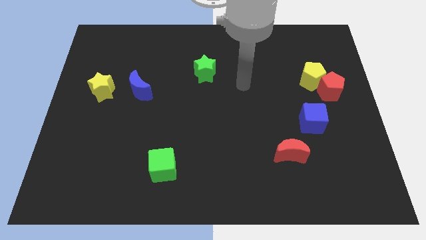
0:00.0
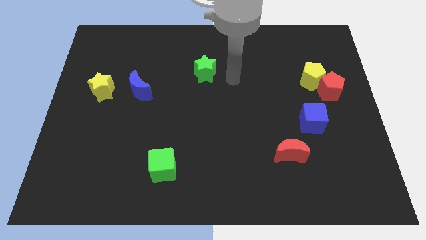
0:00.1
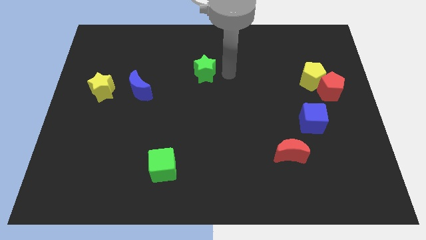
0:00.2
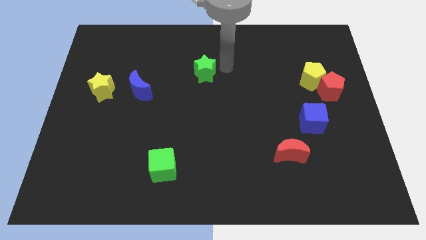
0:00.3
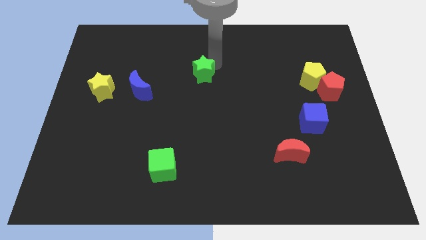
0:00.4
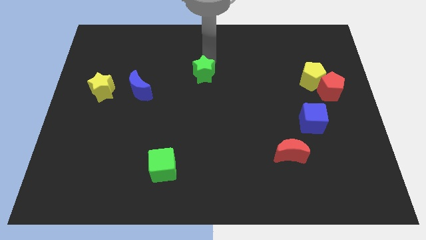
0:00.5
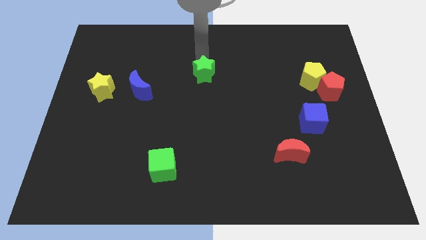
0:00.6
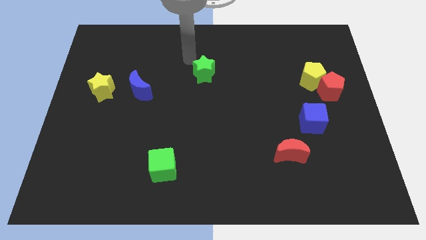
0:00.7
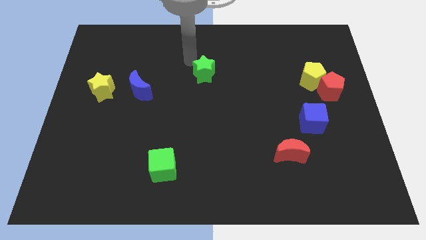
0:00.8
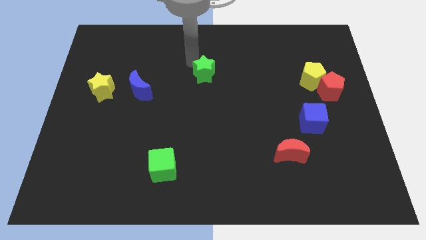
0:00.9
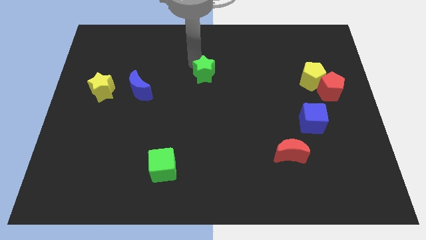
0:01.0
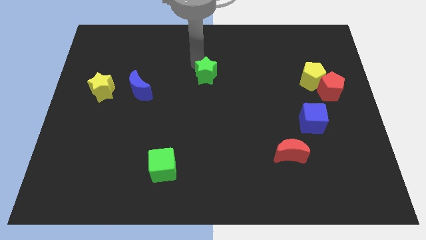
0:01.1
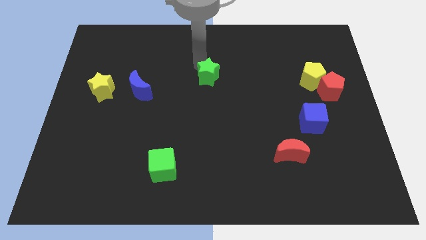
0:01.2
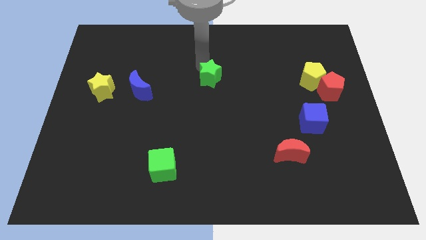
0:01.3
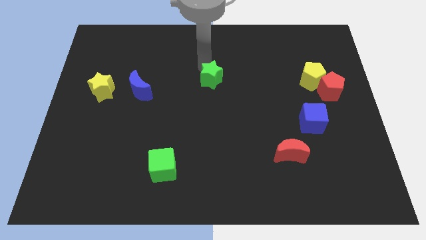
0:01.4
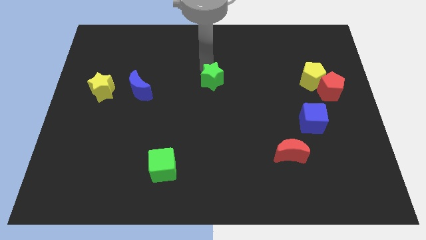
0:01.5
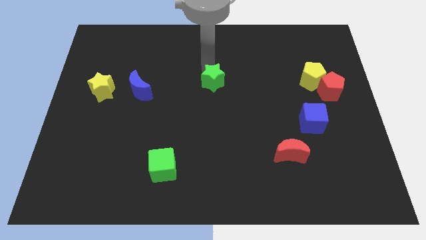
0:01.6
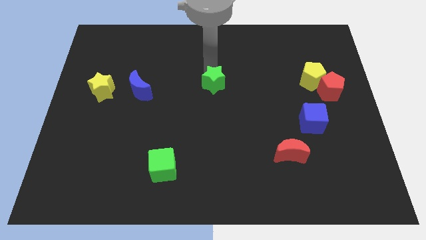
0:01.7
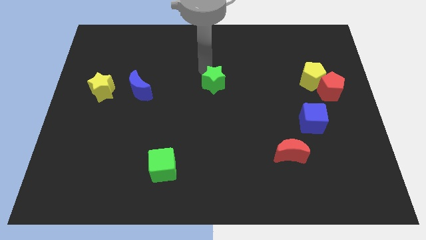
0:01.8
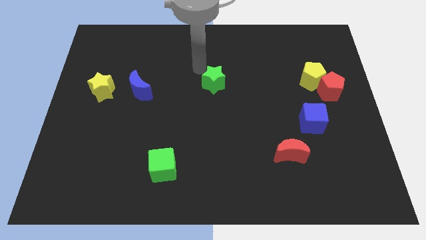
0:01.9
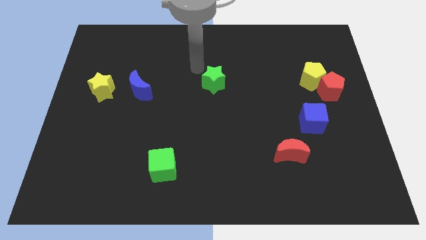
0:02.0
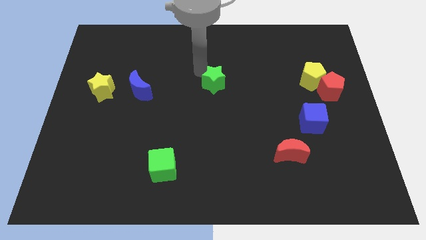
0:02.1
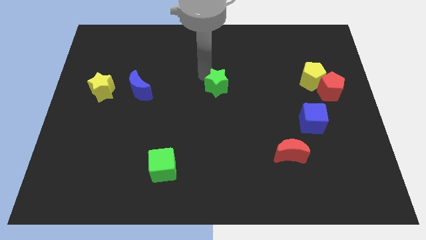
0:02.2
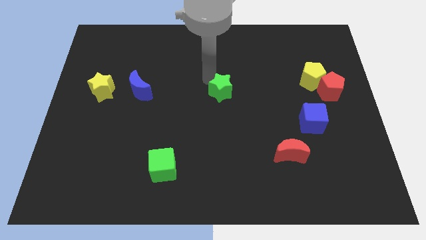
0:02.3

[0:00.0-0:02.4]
move the green star diagonally downwards and to the right a little bit

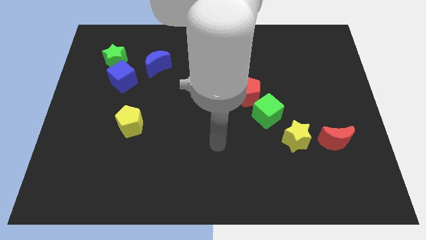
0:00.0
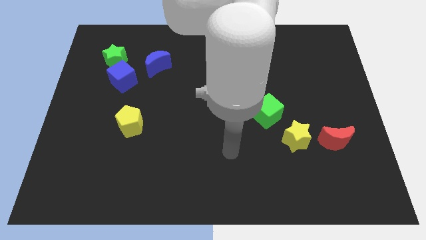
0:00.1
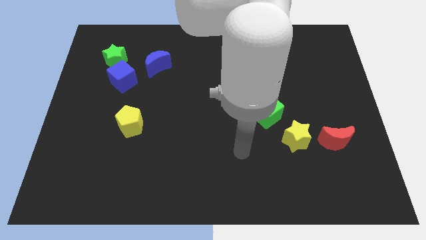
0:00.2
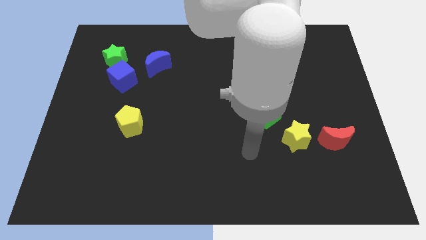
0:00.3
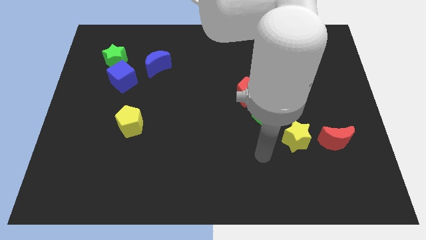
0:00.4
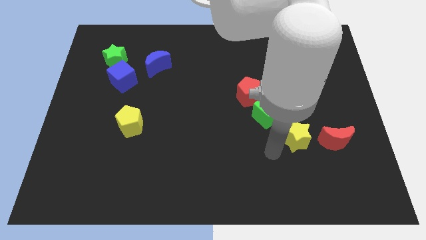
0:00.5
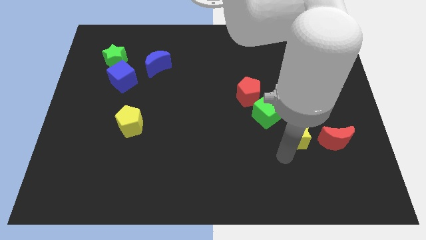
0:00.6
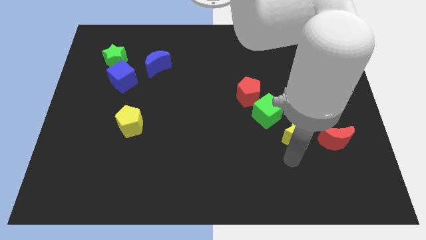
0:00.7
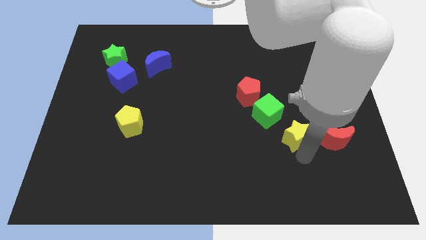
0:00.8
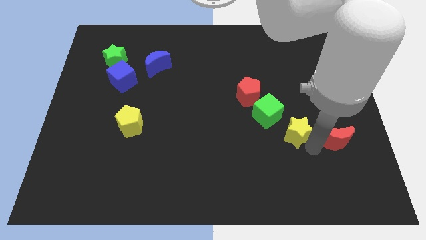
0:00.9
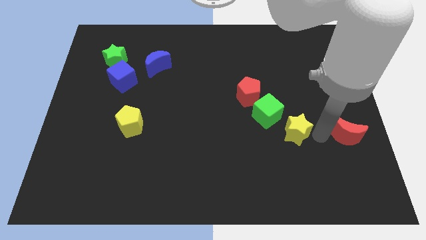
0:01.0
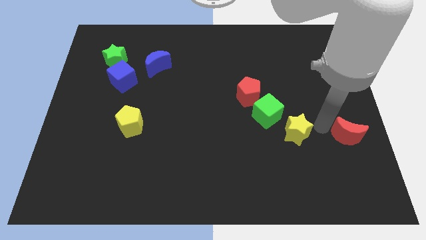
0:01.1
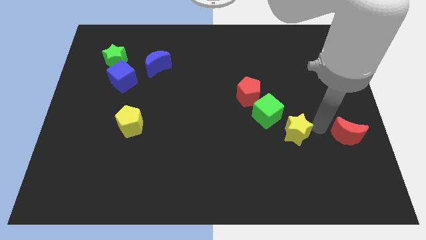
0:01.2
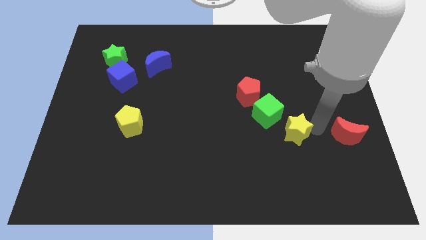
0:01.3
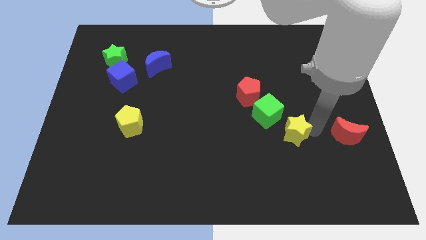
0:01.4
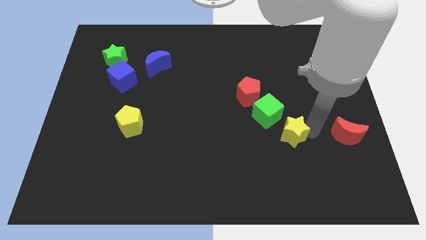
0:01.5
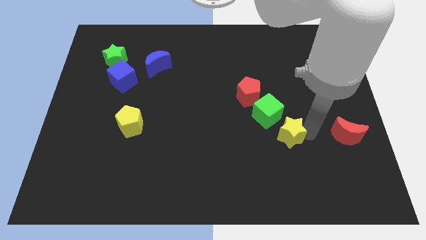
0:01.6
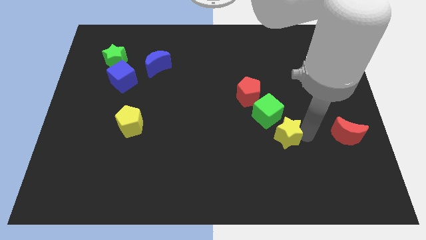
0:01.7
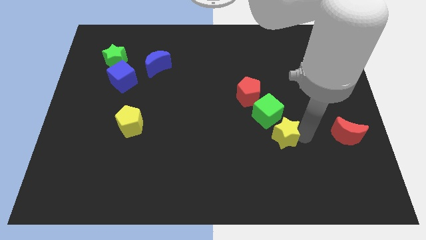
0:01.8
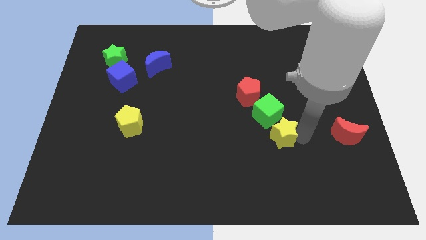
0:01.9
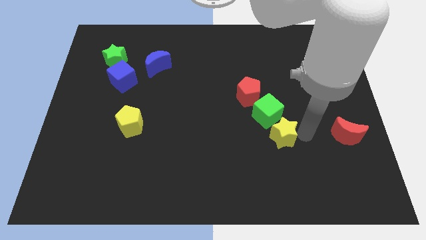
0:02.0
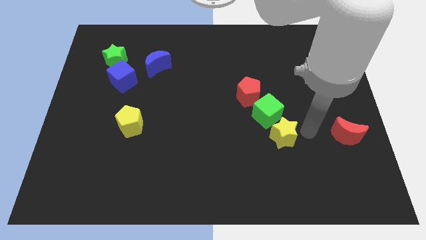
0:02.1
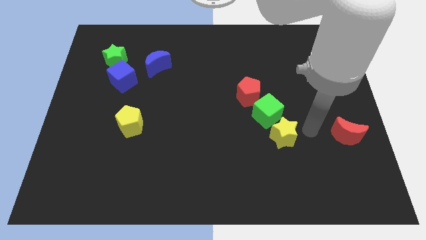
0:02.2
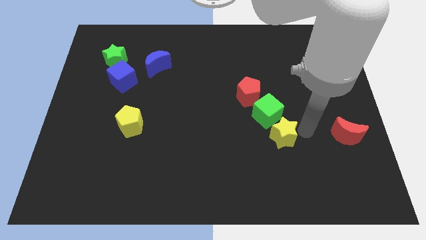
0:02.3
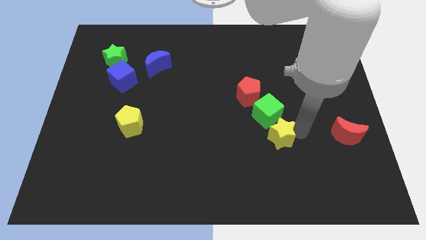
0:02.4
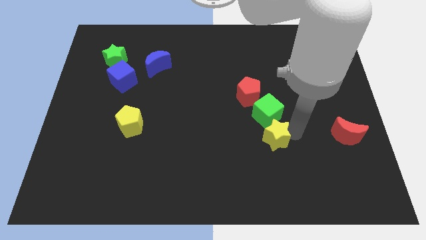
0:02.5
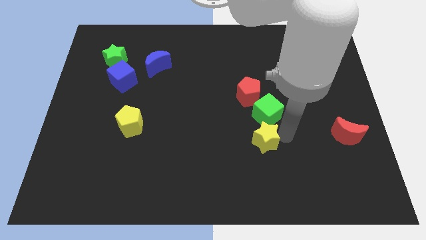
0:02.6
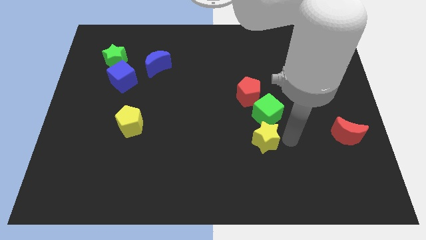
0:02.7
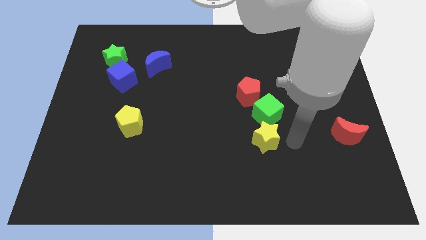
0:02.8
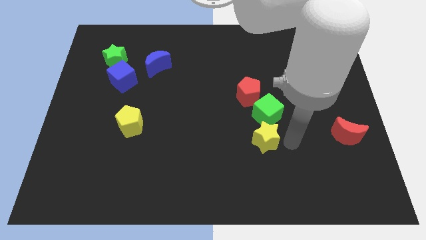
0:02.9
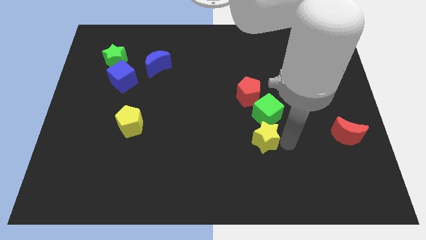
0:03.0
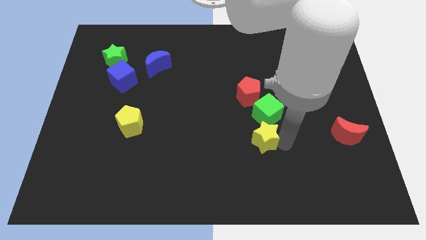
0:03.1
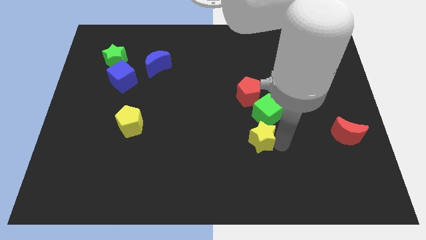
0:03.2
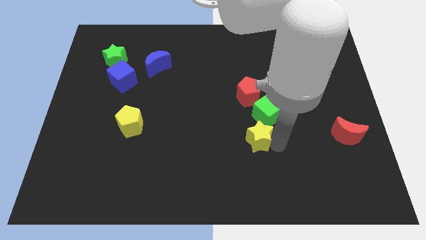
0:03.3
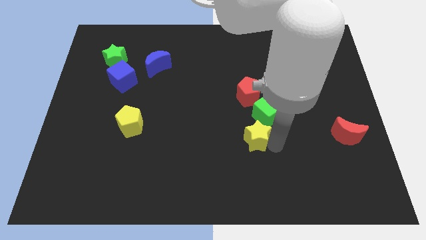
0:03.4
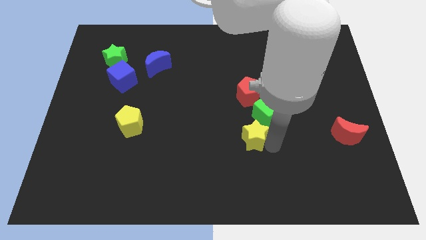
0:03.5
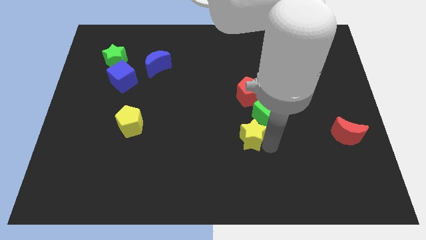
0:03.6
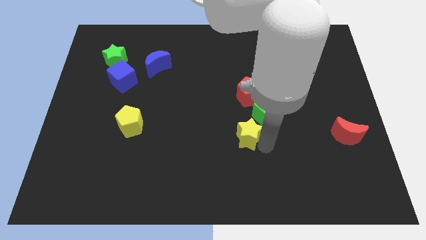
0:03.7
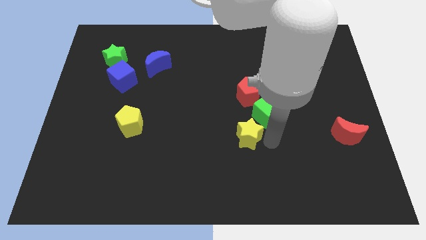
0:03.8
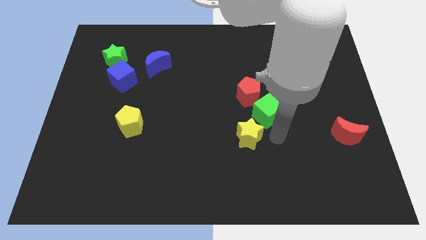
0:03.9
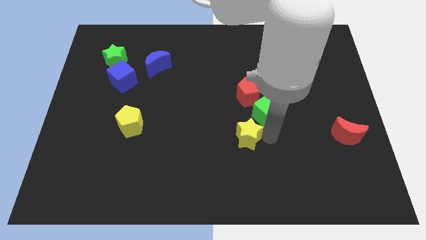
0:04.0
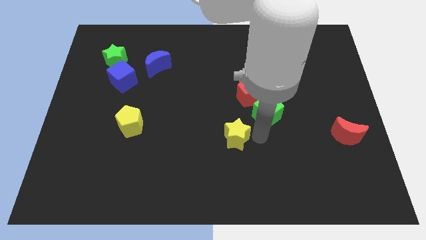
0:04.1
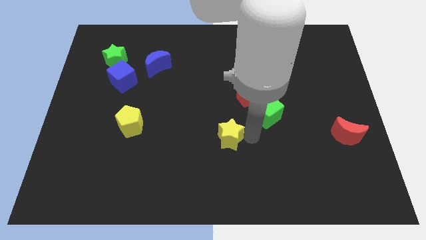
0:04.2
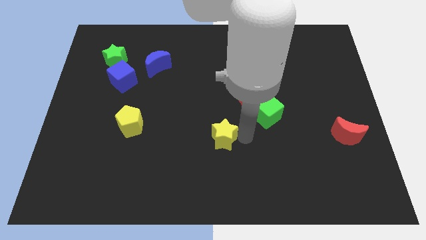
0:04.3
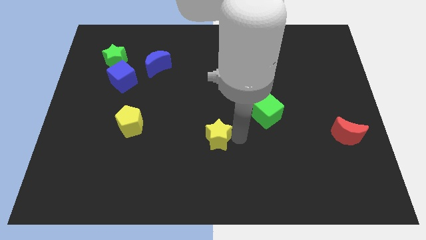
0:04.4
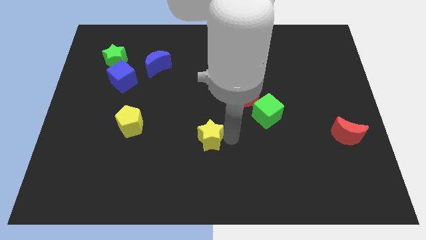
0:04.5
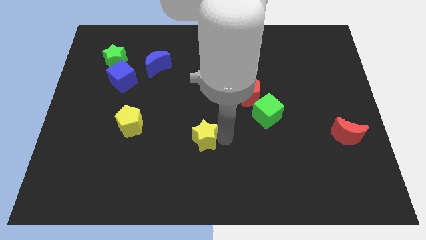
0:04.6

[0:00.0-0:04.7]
slide the yellow star left

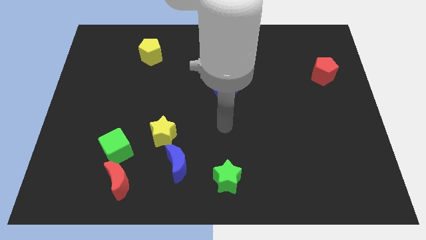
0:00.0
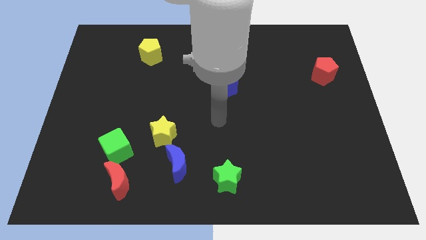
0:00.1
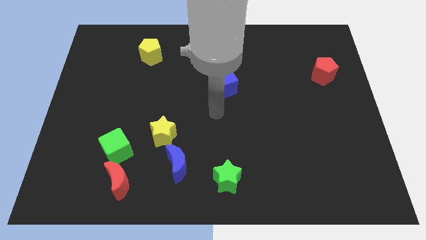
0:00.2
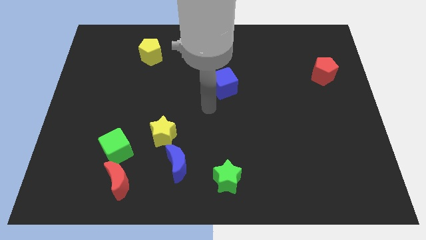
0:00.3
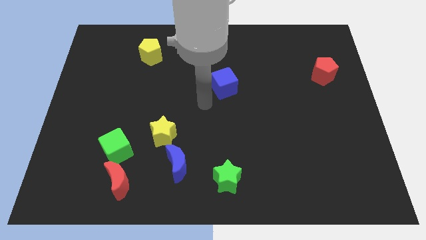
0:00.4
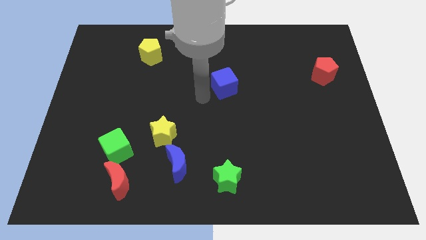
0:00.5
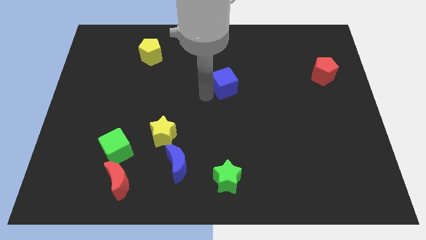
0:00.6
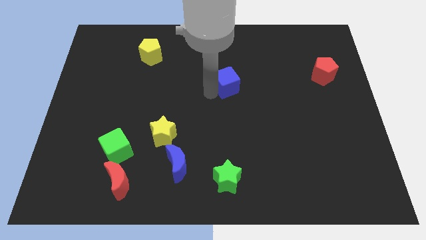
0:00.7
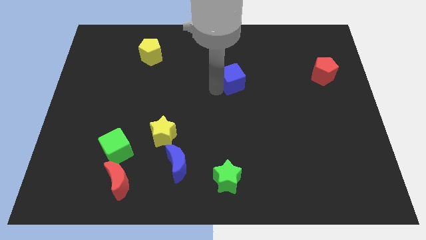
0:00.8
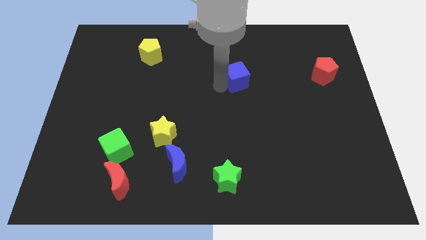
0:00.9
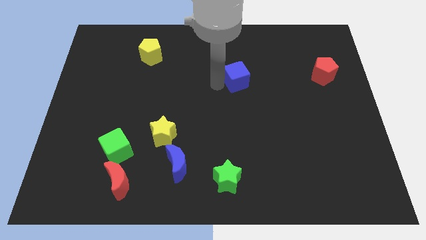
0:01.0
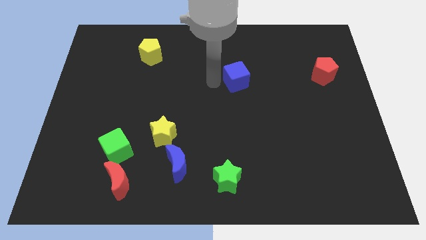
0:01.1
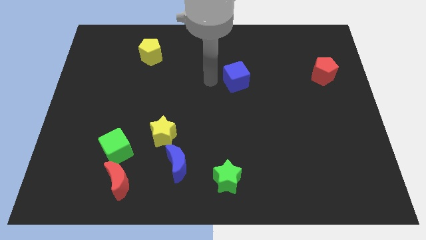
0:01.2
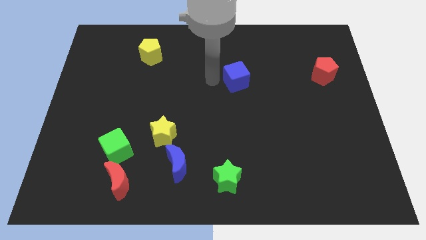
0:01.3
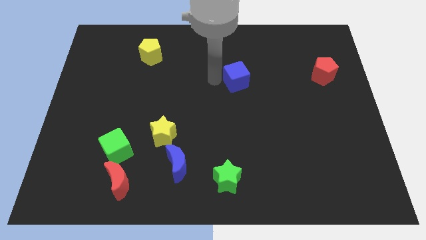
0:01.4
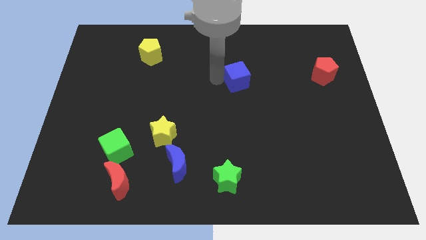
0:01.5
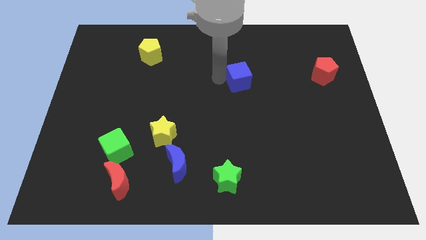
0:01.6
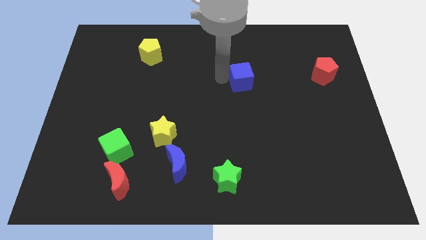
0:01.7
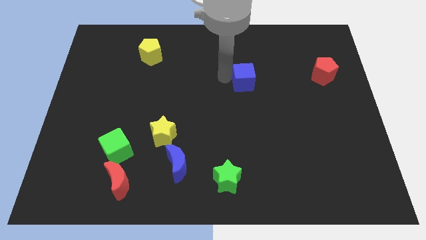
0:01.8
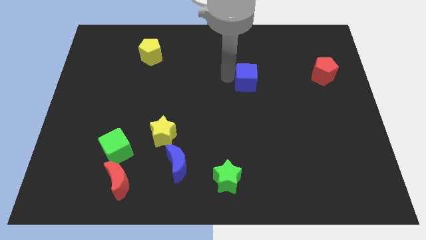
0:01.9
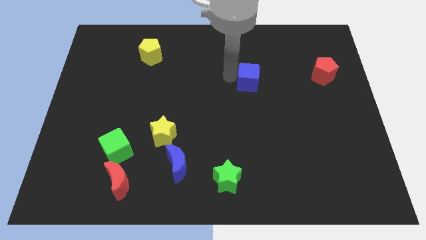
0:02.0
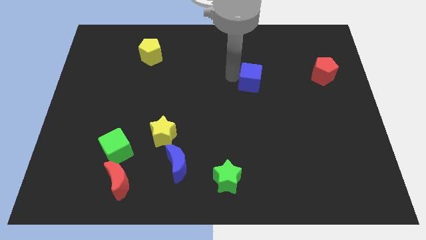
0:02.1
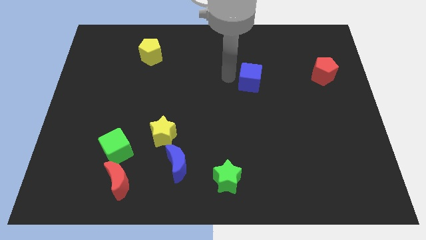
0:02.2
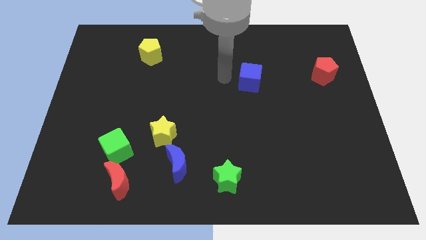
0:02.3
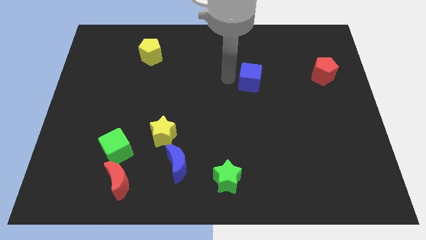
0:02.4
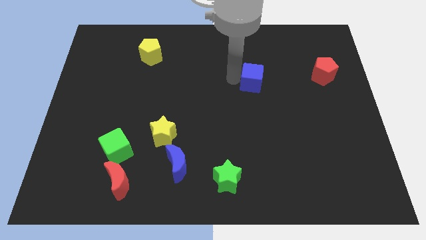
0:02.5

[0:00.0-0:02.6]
move the blue cube right somewhat
